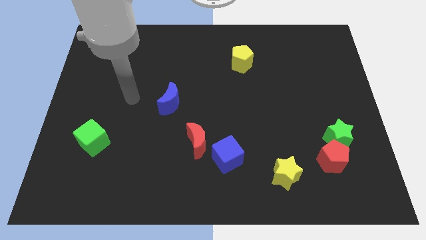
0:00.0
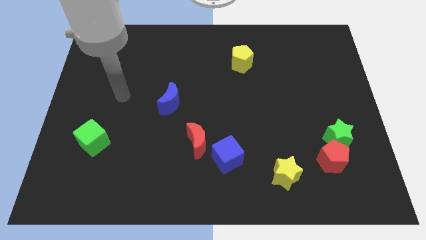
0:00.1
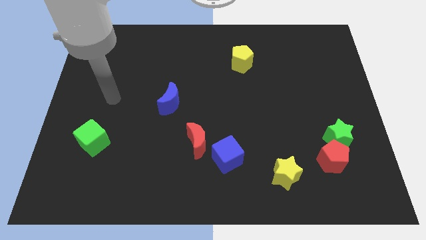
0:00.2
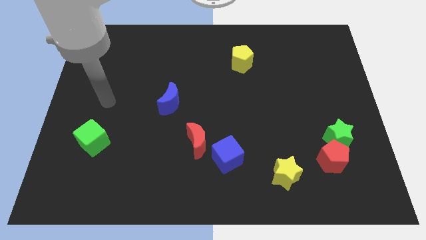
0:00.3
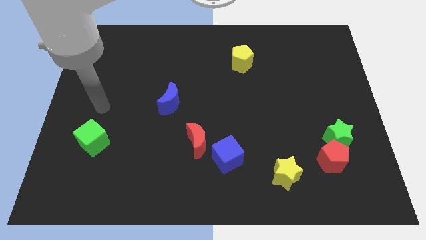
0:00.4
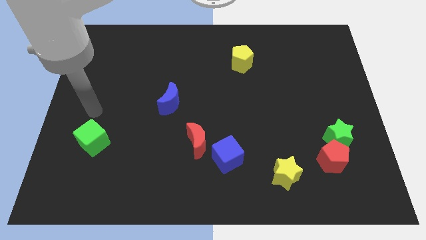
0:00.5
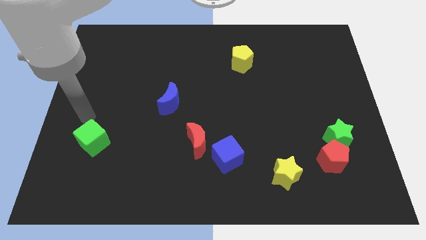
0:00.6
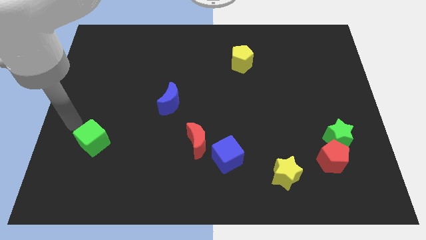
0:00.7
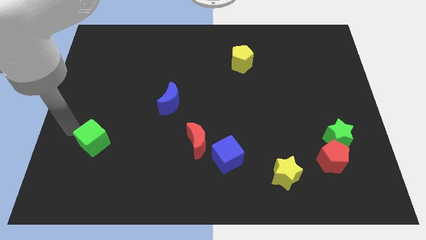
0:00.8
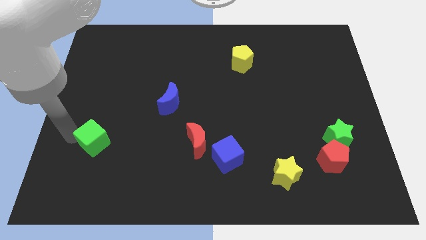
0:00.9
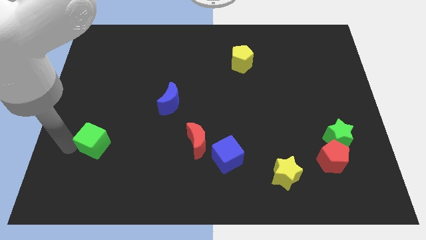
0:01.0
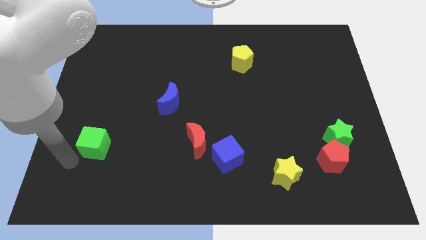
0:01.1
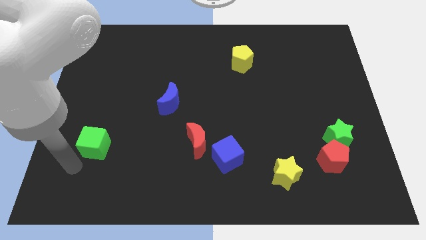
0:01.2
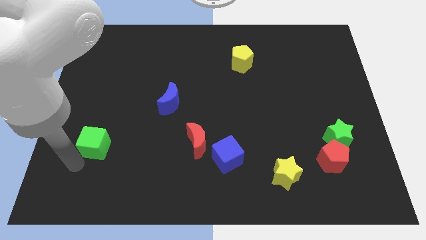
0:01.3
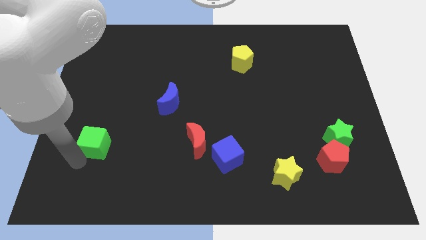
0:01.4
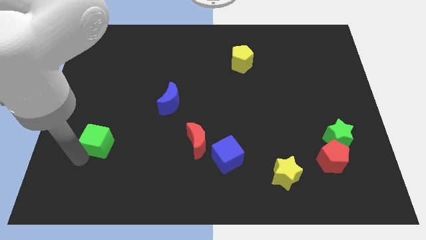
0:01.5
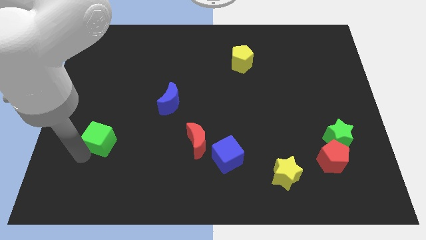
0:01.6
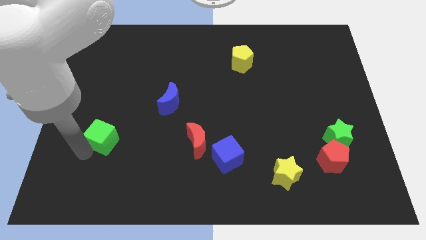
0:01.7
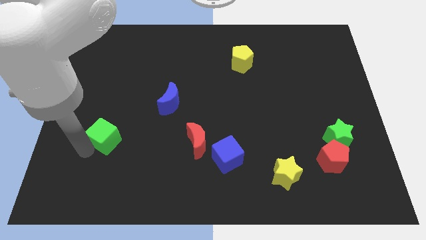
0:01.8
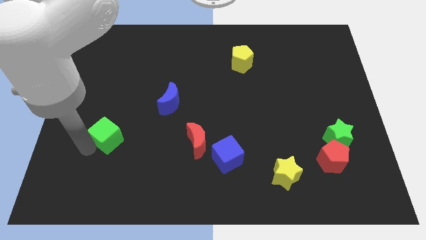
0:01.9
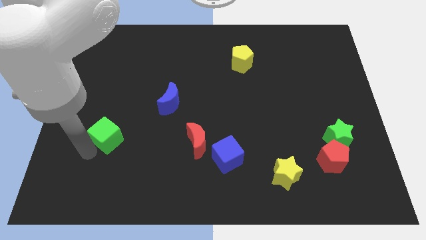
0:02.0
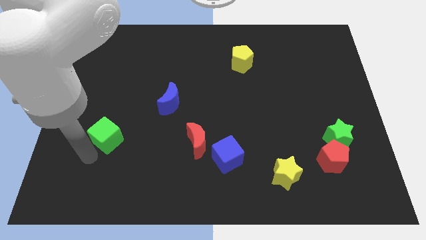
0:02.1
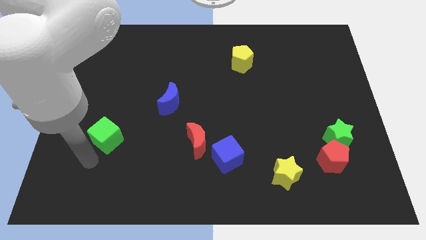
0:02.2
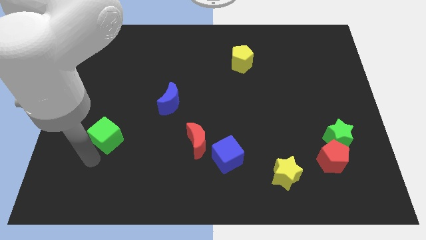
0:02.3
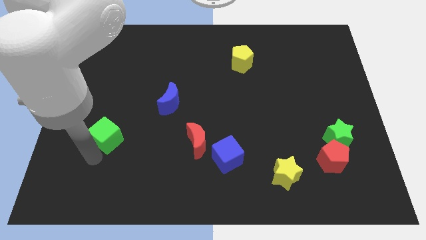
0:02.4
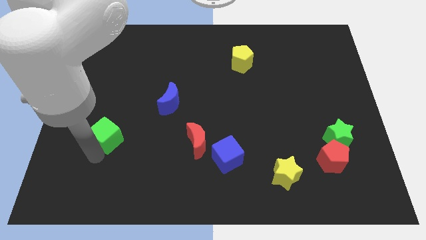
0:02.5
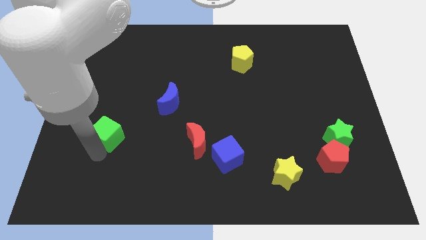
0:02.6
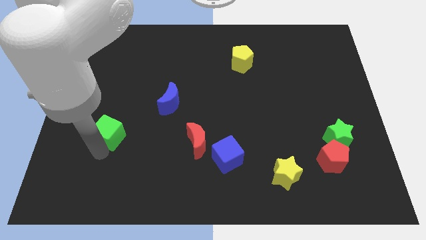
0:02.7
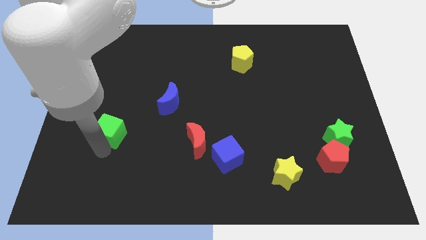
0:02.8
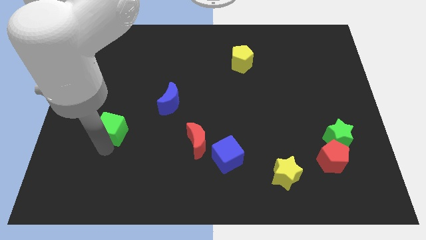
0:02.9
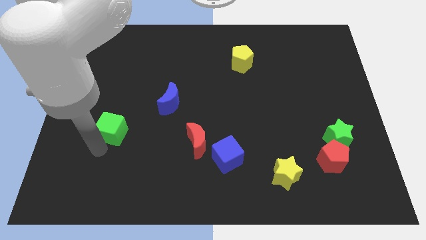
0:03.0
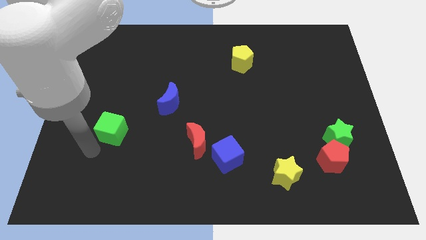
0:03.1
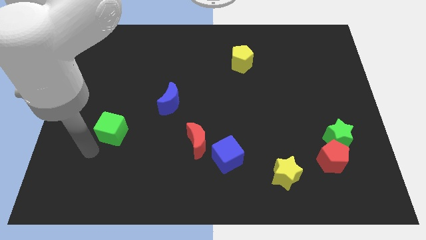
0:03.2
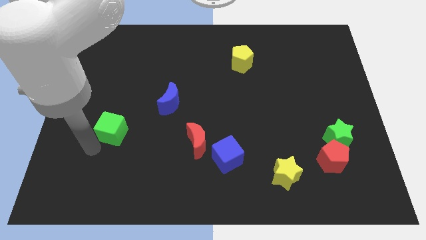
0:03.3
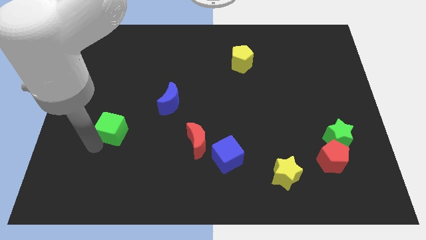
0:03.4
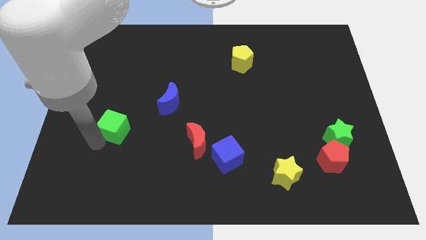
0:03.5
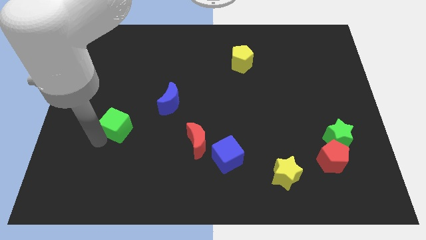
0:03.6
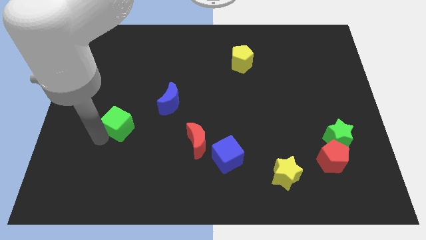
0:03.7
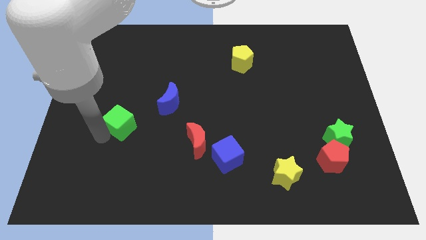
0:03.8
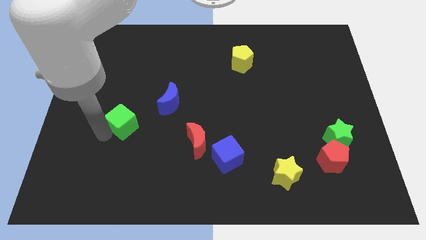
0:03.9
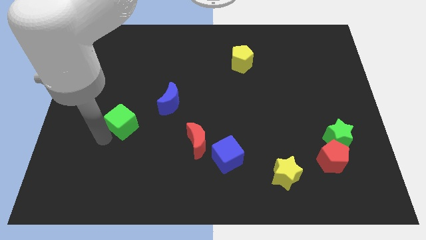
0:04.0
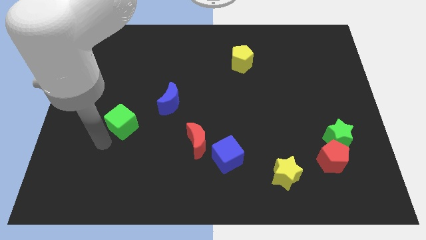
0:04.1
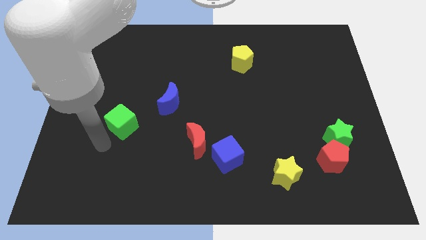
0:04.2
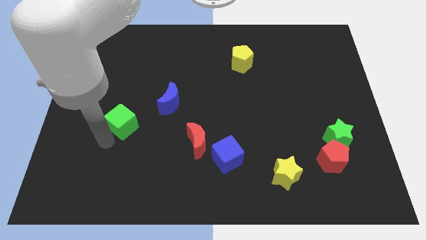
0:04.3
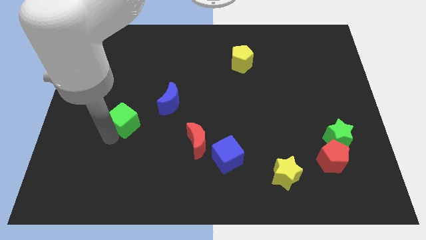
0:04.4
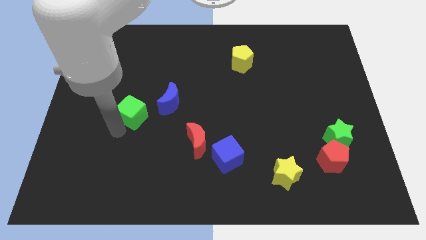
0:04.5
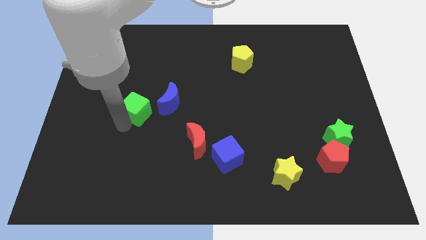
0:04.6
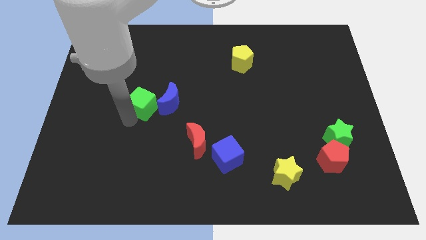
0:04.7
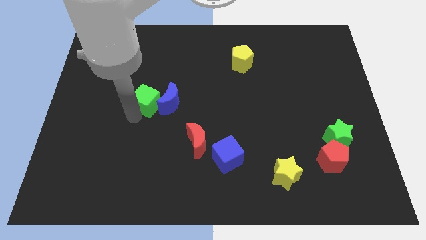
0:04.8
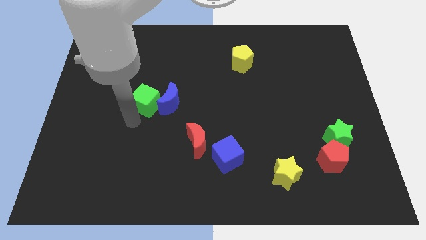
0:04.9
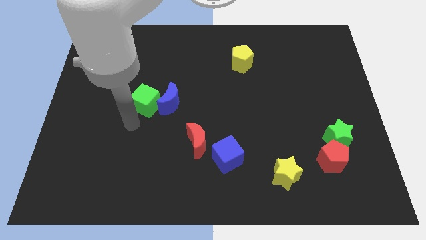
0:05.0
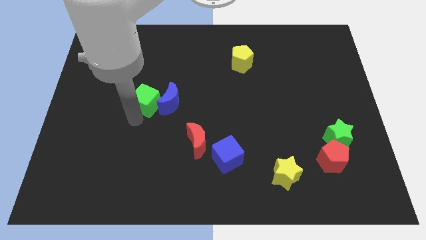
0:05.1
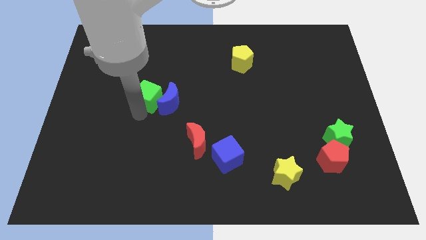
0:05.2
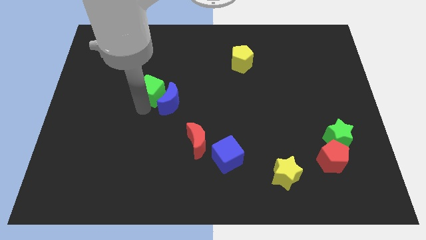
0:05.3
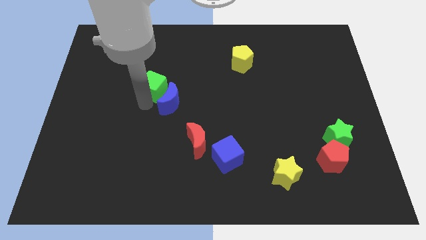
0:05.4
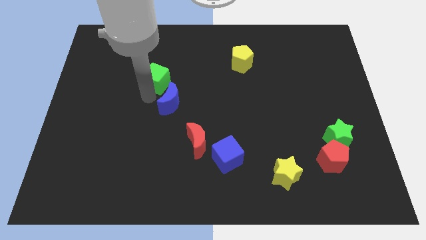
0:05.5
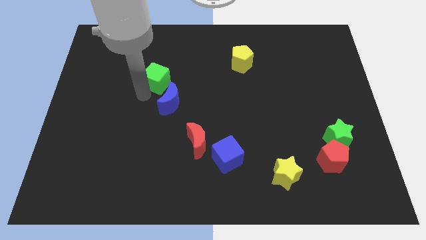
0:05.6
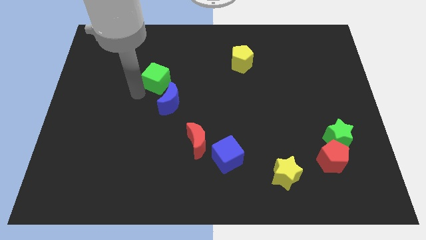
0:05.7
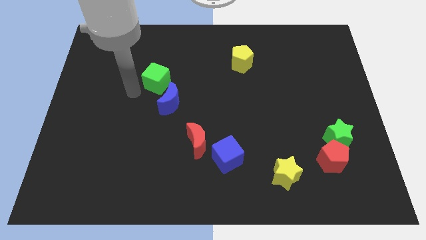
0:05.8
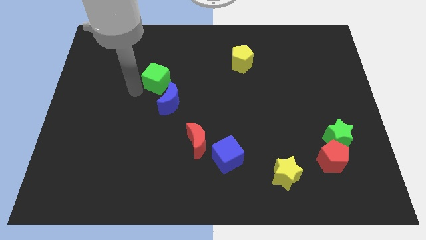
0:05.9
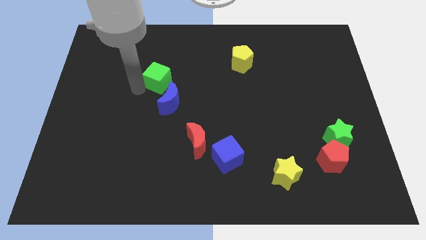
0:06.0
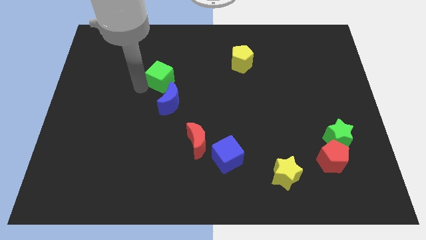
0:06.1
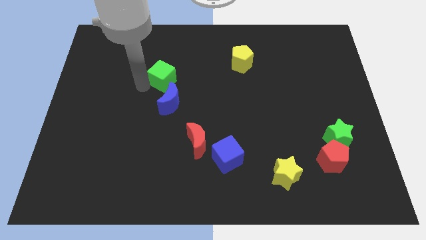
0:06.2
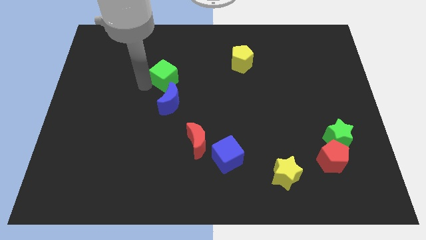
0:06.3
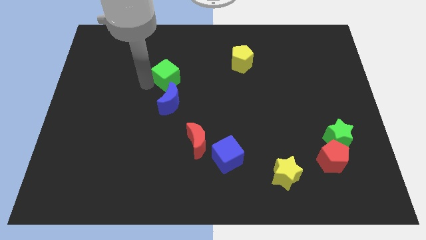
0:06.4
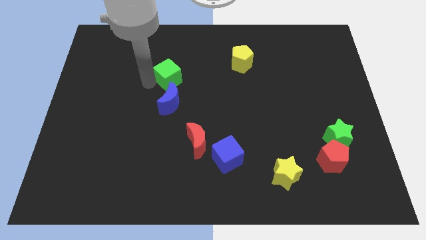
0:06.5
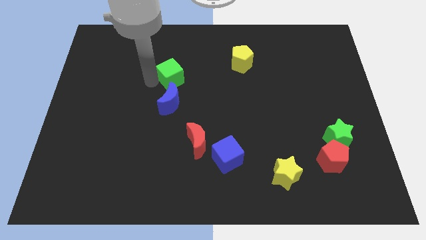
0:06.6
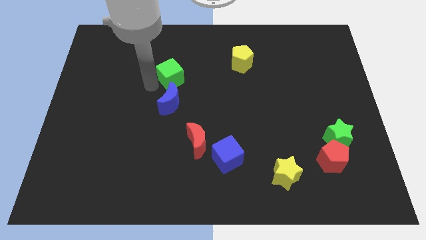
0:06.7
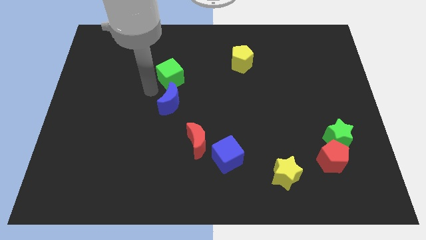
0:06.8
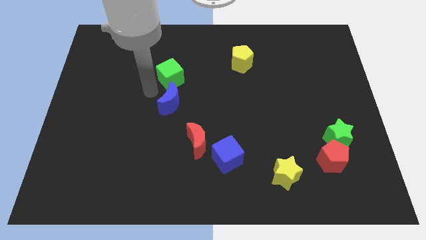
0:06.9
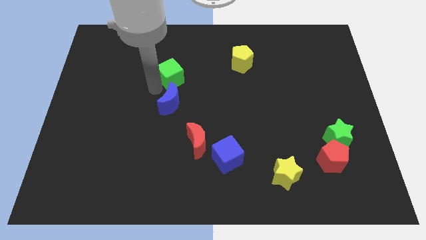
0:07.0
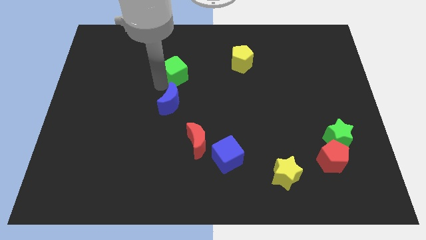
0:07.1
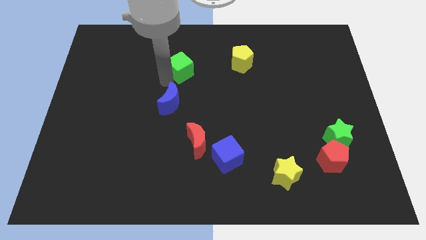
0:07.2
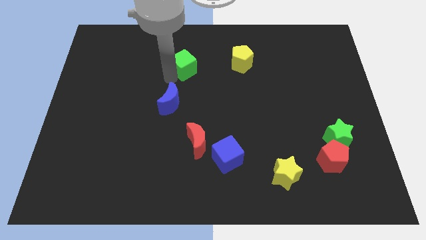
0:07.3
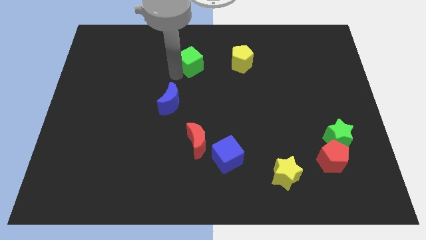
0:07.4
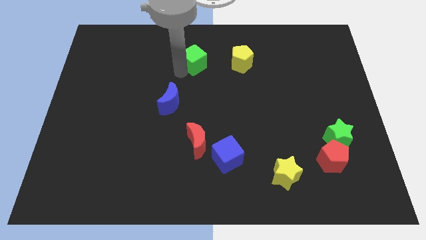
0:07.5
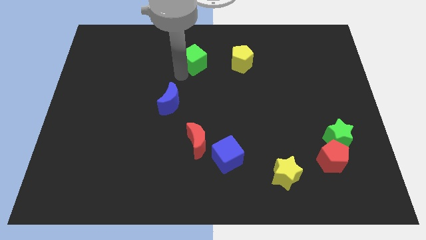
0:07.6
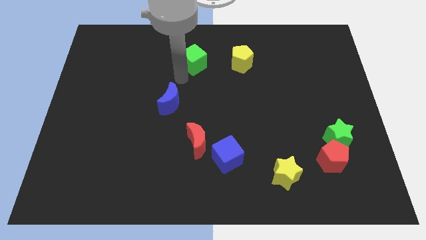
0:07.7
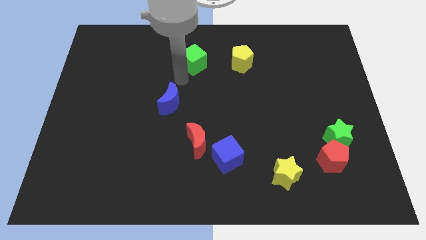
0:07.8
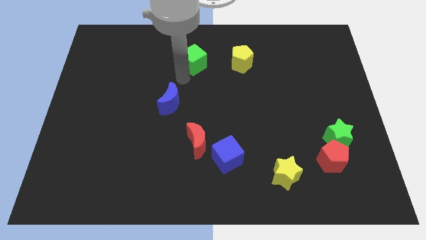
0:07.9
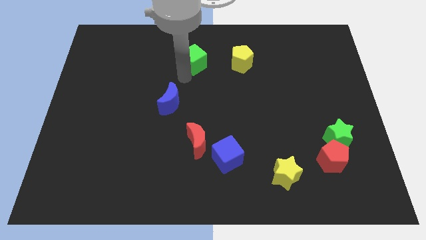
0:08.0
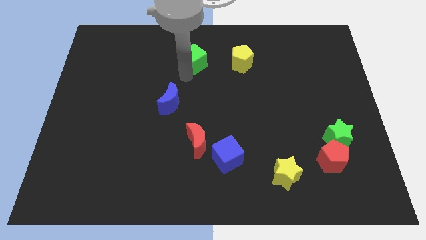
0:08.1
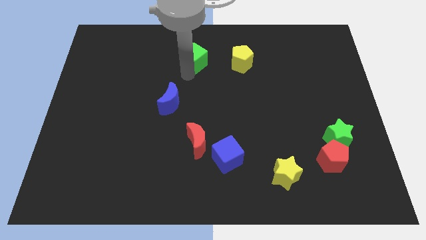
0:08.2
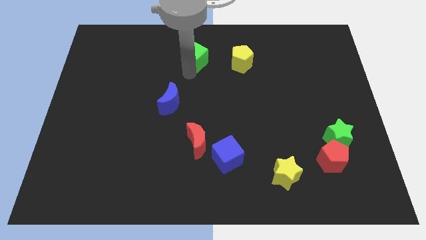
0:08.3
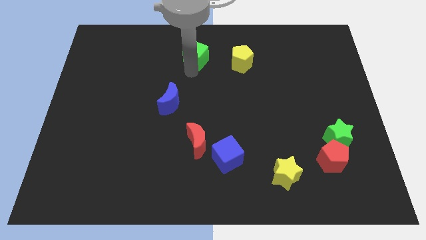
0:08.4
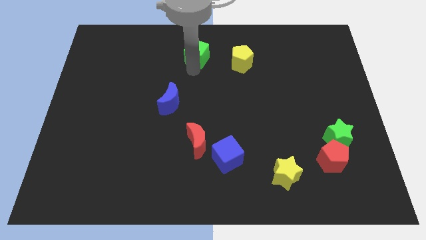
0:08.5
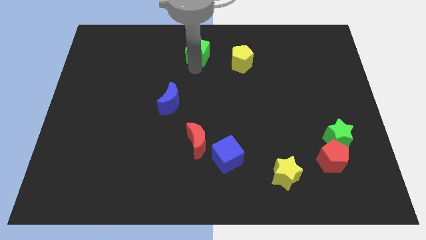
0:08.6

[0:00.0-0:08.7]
slide the green cube to the top
